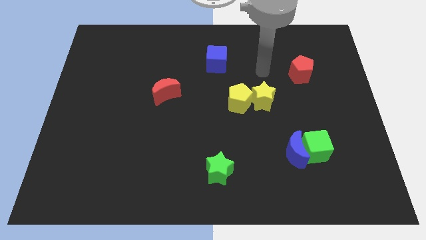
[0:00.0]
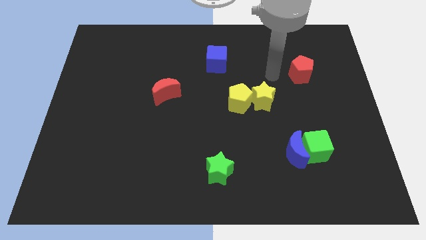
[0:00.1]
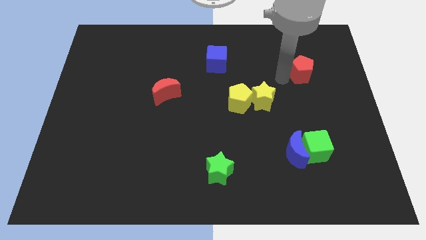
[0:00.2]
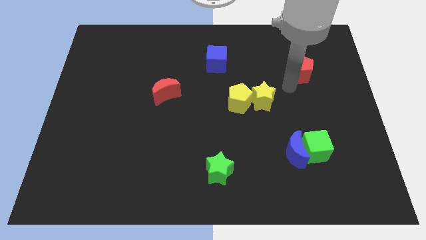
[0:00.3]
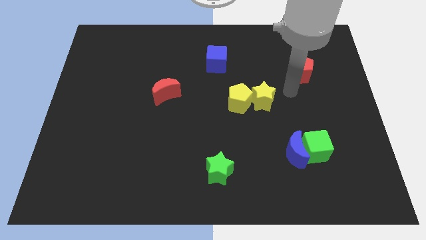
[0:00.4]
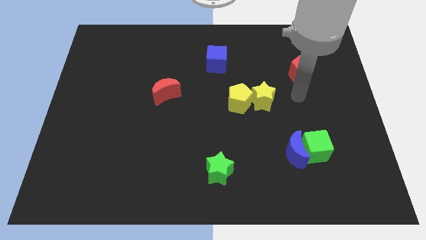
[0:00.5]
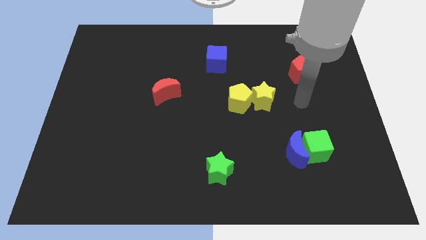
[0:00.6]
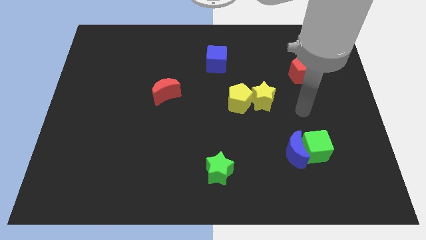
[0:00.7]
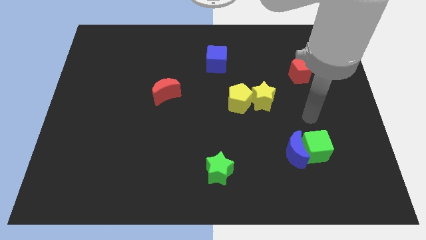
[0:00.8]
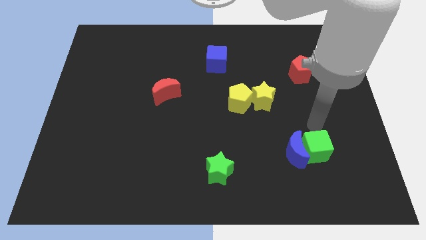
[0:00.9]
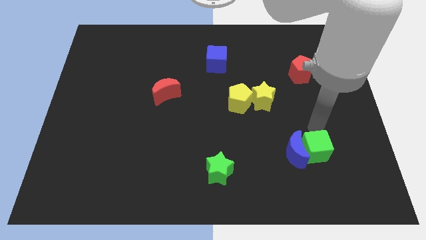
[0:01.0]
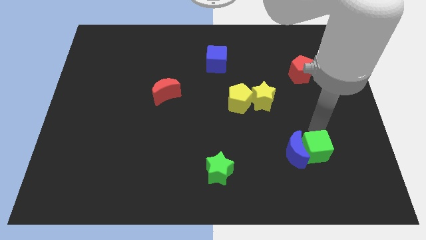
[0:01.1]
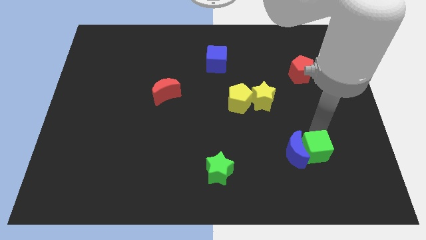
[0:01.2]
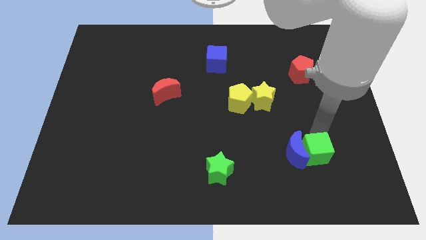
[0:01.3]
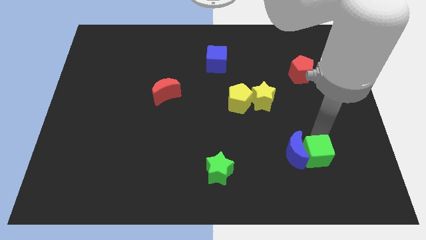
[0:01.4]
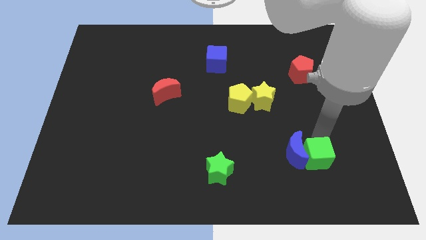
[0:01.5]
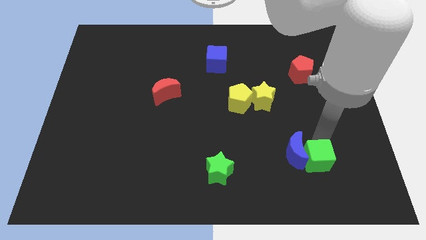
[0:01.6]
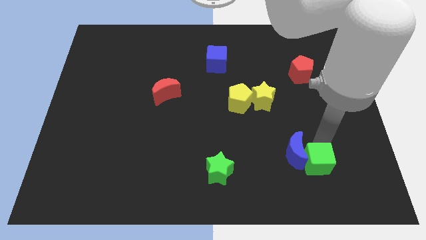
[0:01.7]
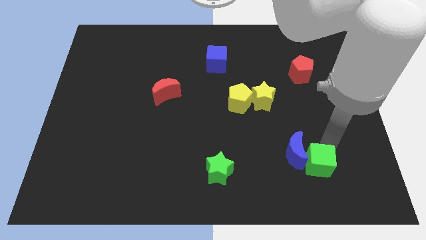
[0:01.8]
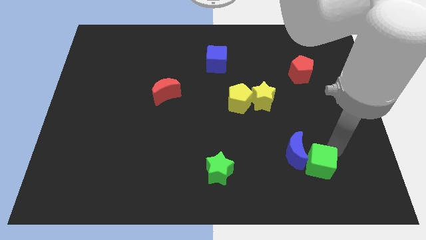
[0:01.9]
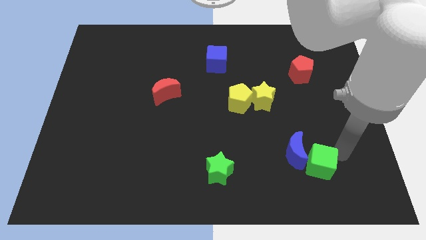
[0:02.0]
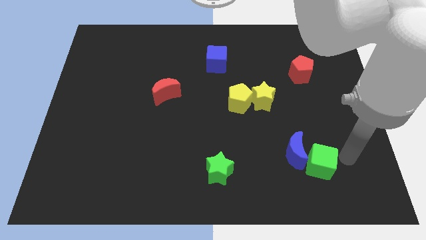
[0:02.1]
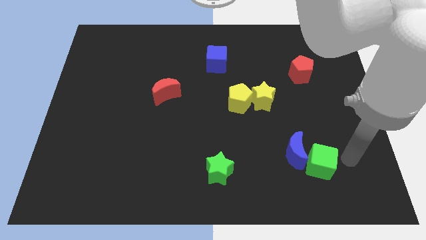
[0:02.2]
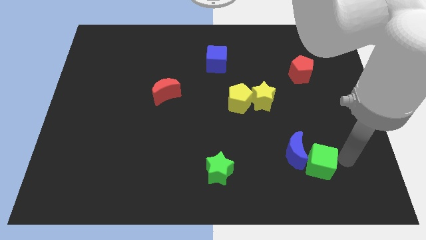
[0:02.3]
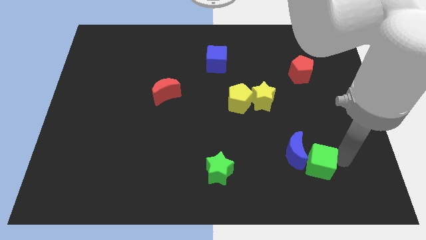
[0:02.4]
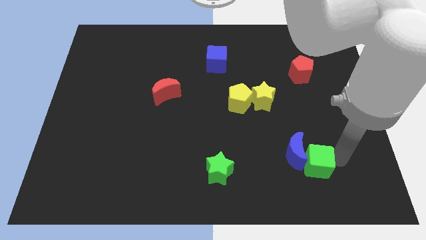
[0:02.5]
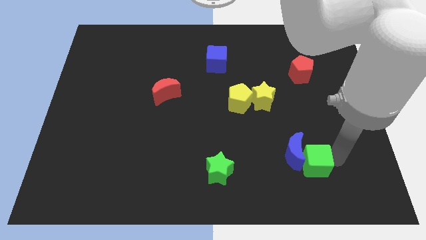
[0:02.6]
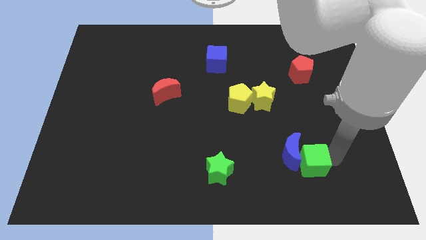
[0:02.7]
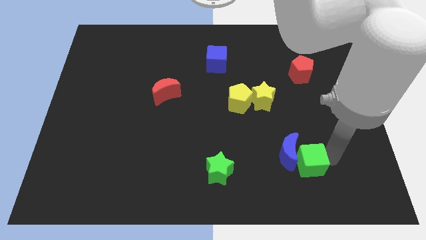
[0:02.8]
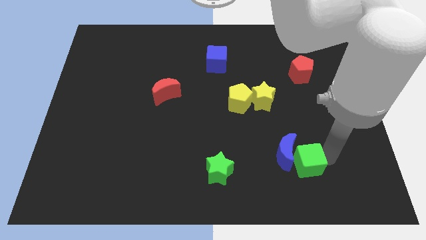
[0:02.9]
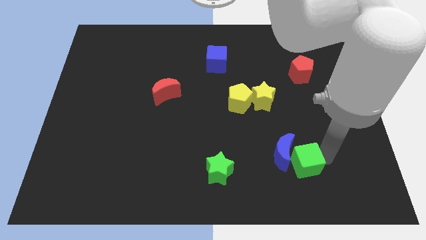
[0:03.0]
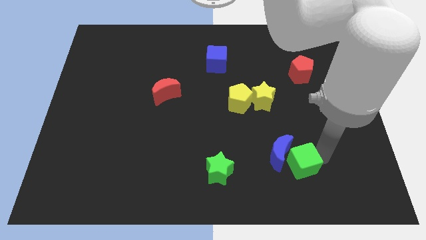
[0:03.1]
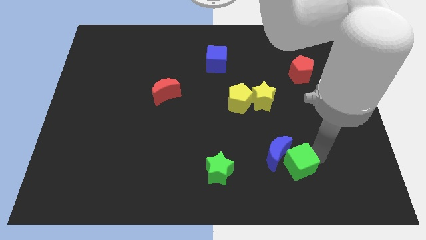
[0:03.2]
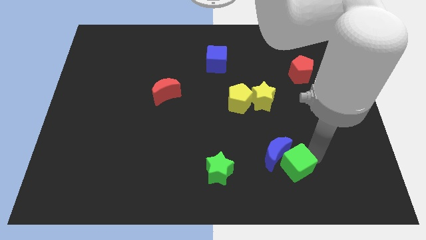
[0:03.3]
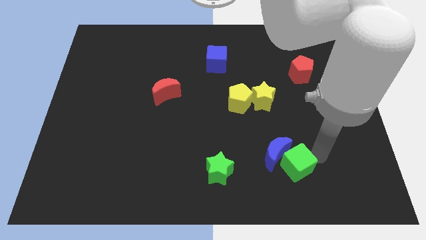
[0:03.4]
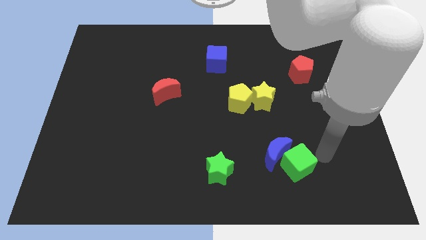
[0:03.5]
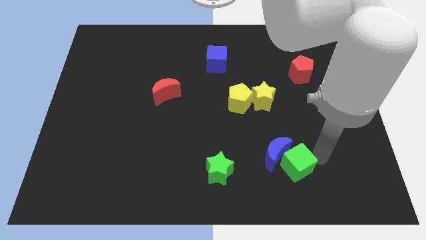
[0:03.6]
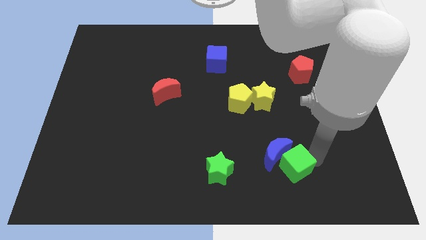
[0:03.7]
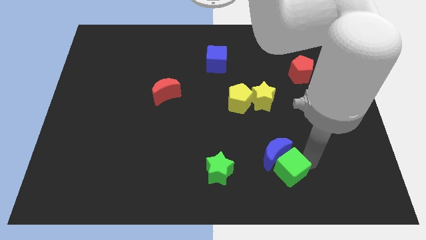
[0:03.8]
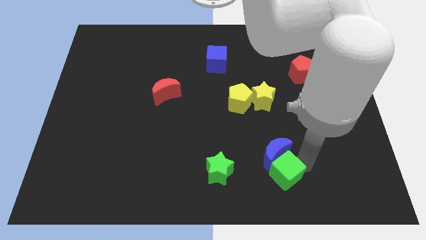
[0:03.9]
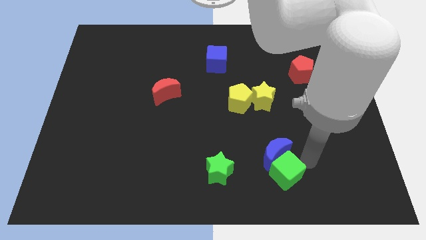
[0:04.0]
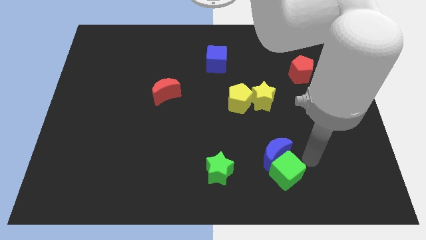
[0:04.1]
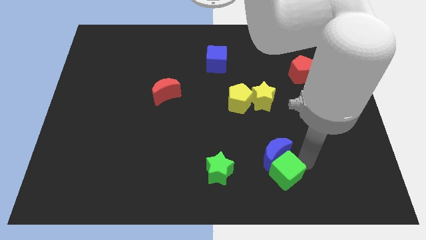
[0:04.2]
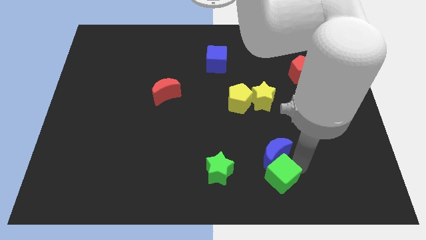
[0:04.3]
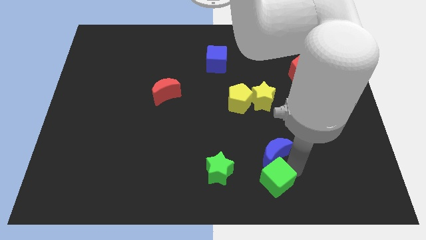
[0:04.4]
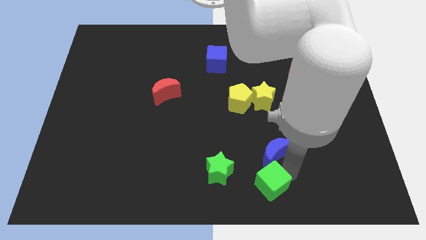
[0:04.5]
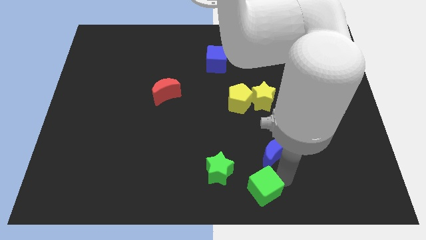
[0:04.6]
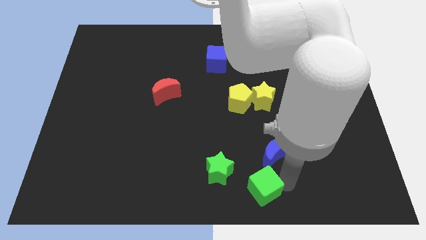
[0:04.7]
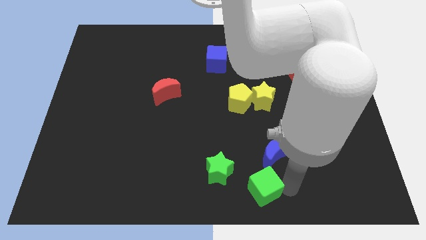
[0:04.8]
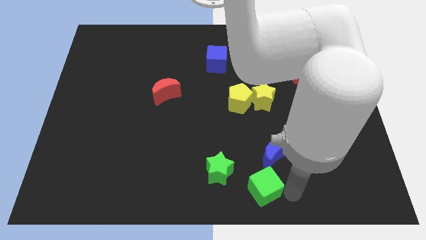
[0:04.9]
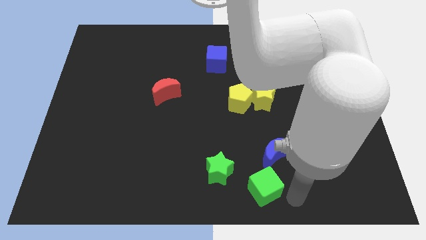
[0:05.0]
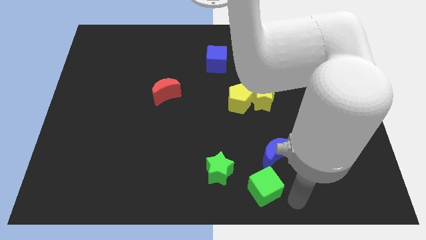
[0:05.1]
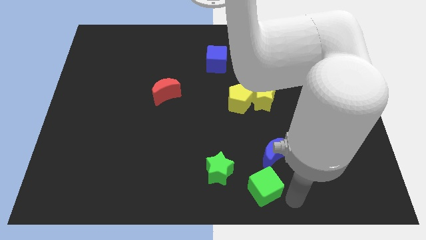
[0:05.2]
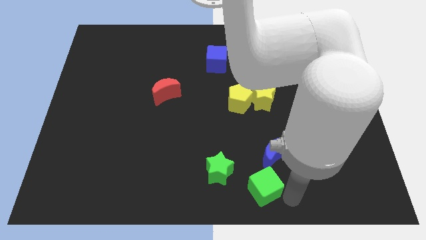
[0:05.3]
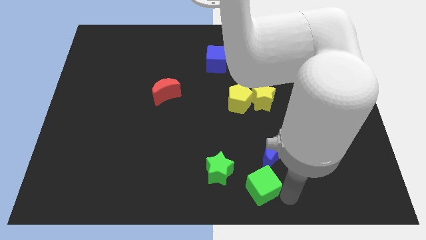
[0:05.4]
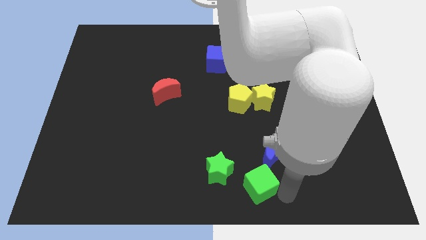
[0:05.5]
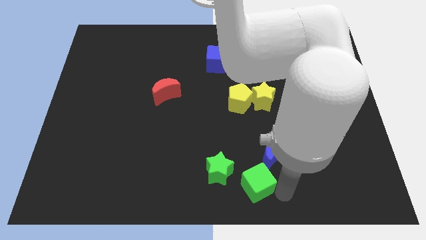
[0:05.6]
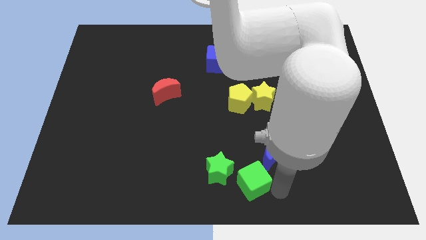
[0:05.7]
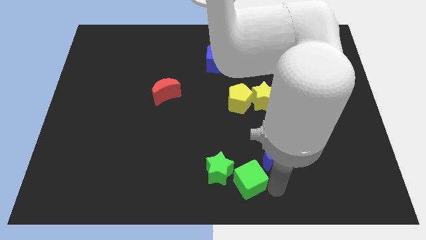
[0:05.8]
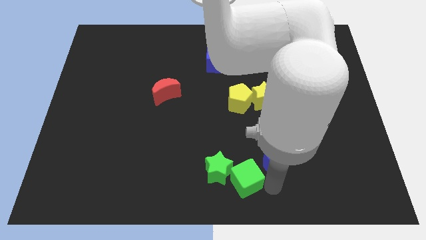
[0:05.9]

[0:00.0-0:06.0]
move the green cube next to the green star

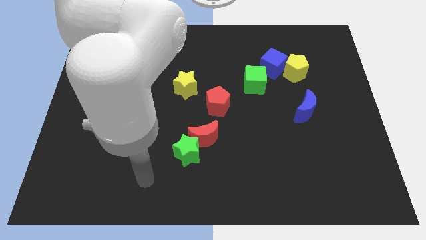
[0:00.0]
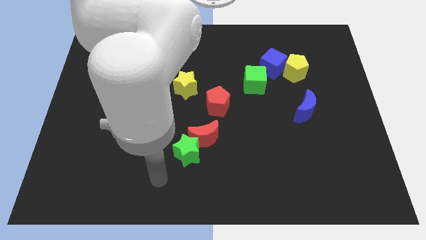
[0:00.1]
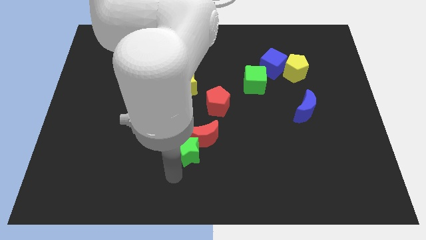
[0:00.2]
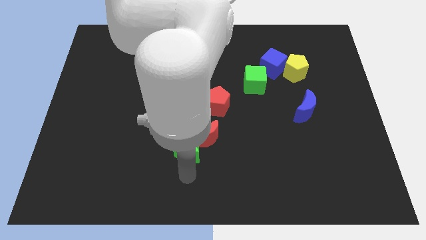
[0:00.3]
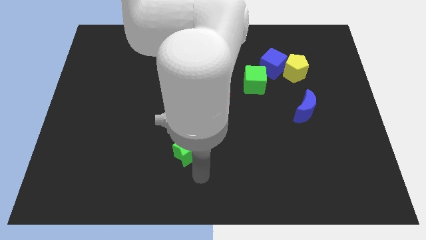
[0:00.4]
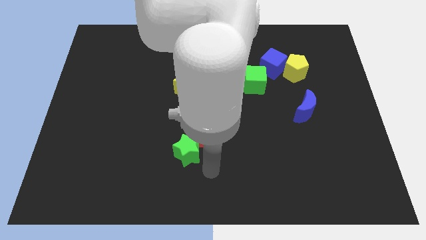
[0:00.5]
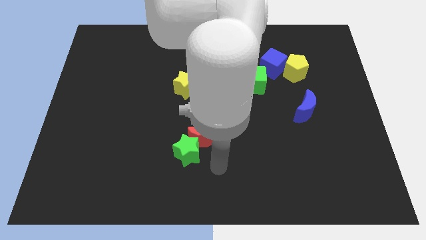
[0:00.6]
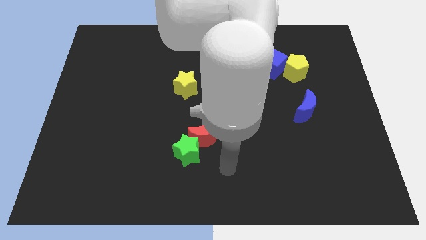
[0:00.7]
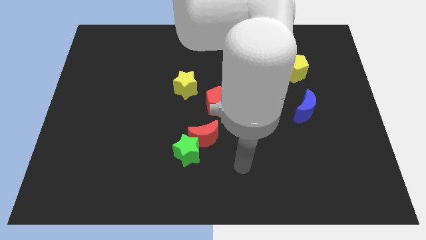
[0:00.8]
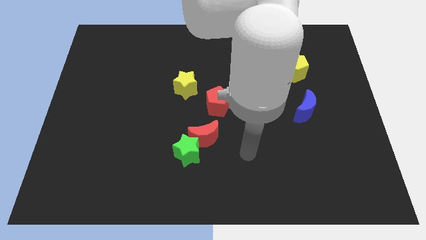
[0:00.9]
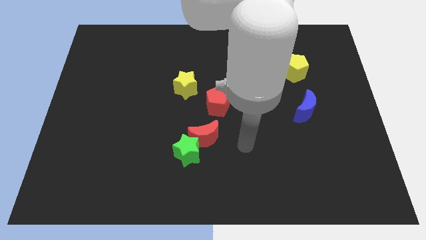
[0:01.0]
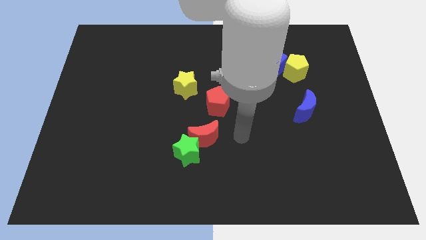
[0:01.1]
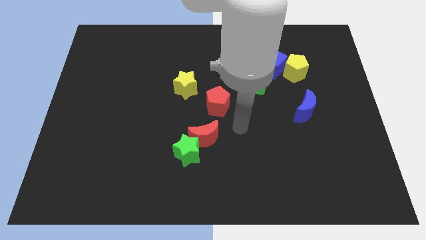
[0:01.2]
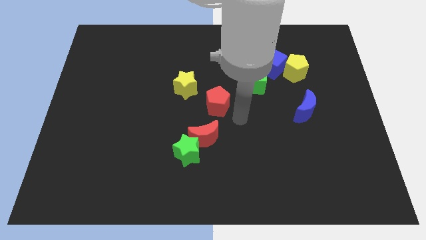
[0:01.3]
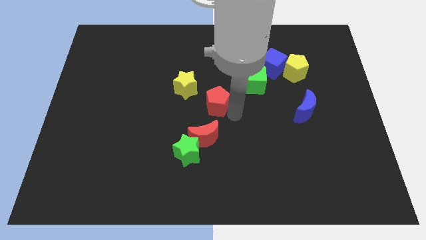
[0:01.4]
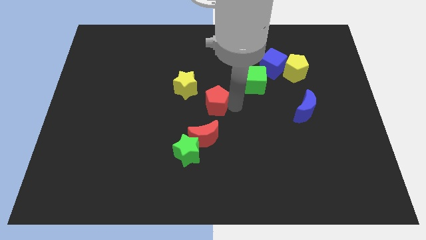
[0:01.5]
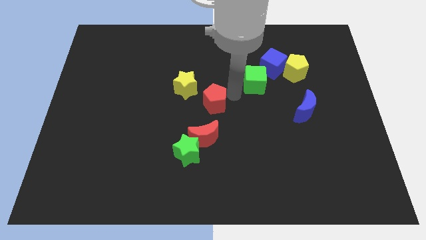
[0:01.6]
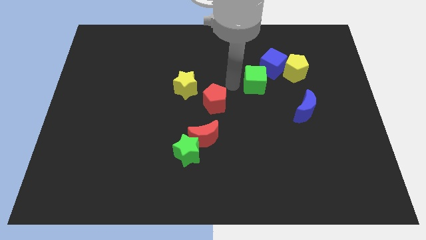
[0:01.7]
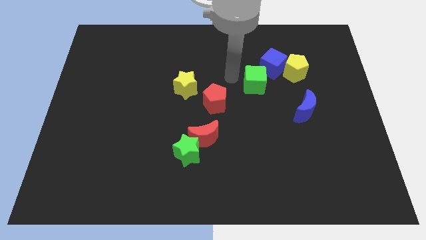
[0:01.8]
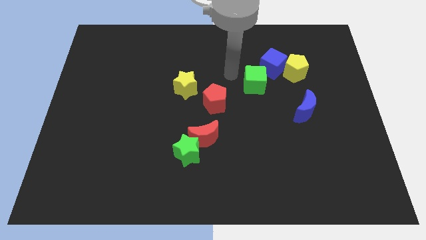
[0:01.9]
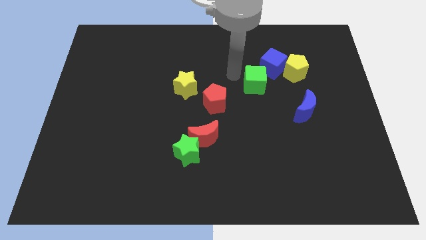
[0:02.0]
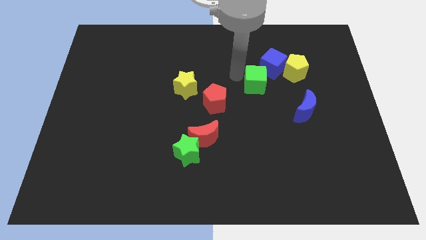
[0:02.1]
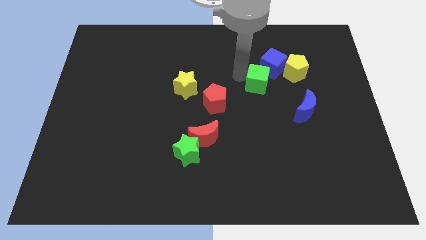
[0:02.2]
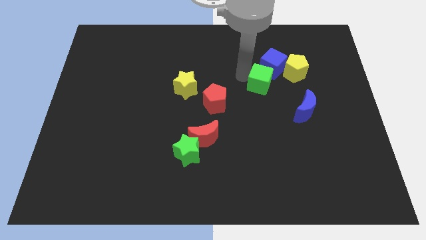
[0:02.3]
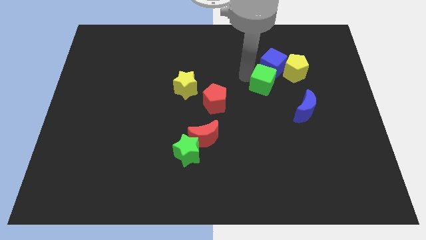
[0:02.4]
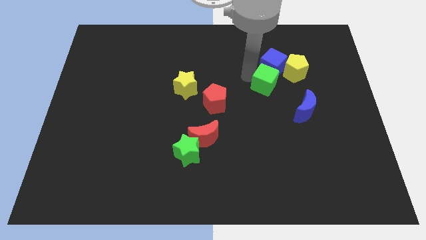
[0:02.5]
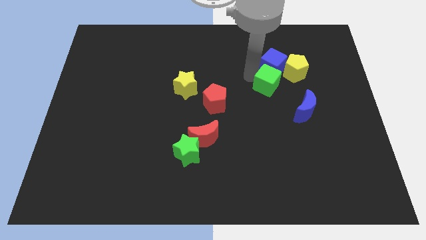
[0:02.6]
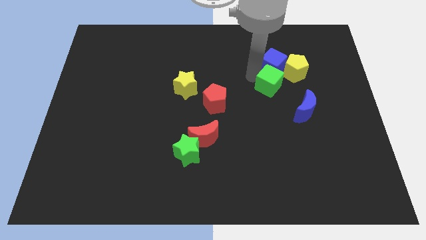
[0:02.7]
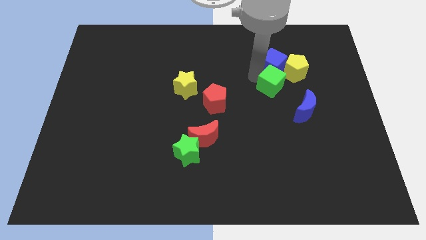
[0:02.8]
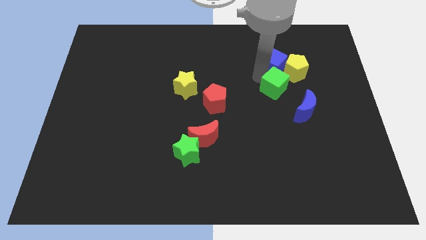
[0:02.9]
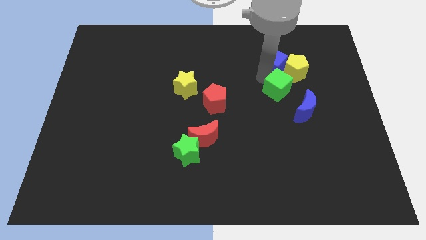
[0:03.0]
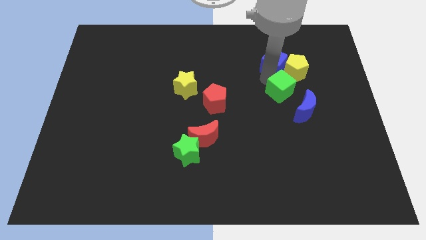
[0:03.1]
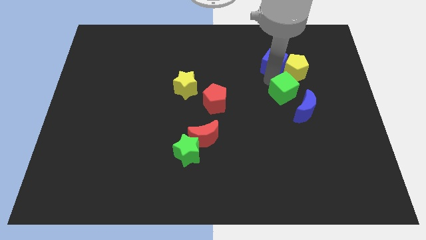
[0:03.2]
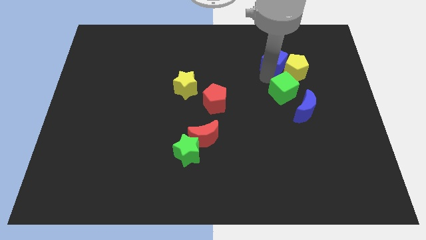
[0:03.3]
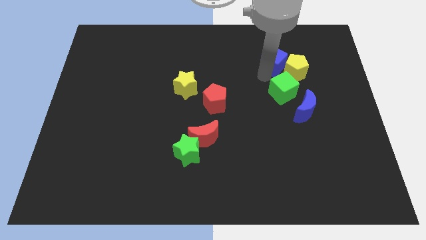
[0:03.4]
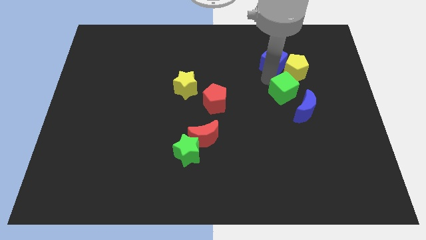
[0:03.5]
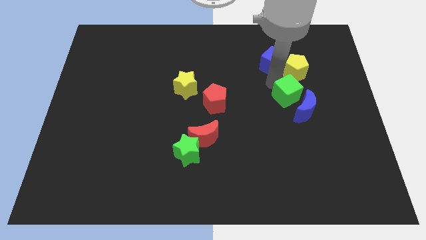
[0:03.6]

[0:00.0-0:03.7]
slide the green cube to the blue moon
